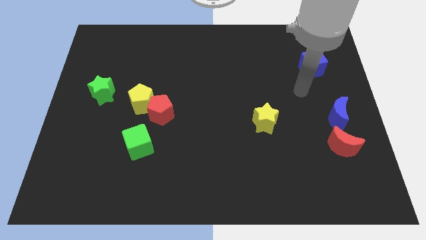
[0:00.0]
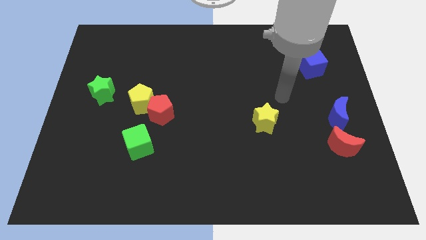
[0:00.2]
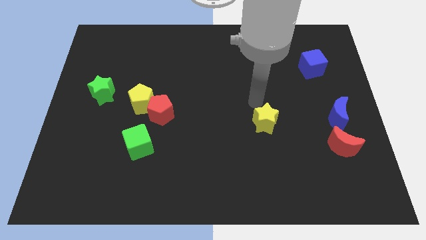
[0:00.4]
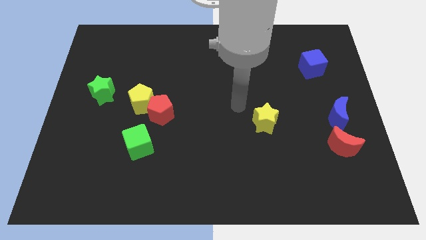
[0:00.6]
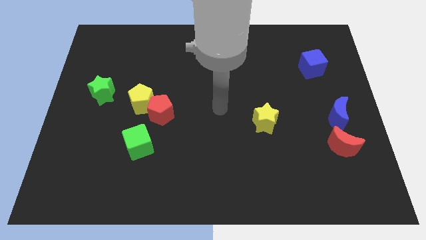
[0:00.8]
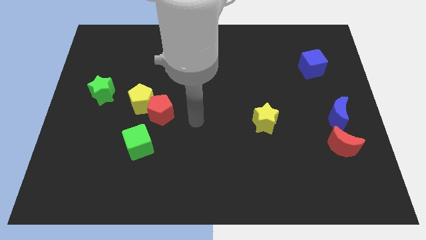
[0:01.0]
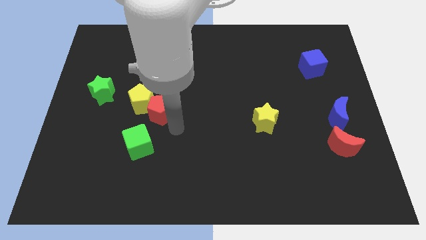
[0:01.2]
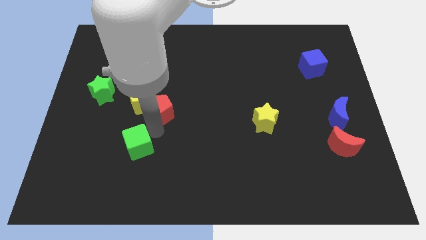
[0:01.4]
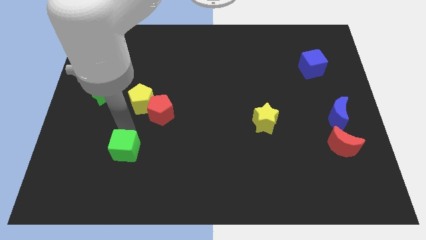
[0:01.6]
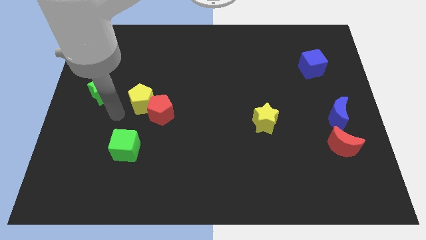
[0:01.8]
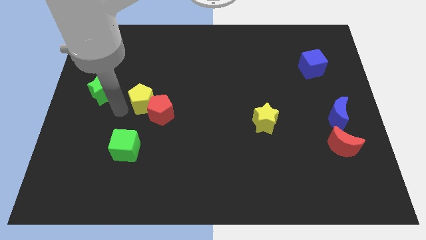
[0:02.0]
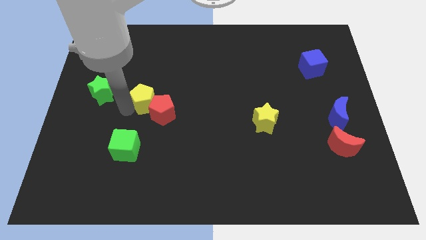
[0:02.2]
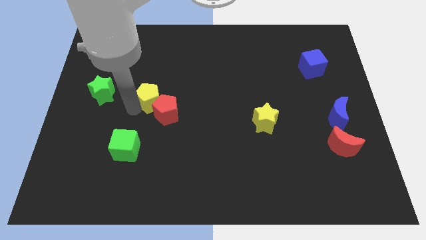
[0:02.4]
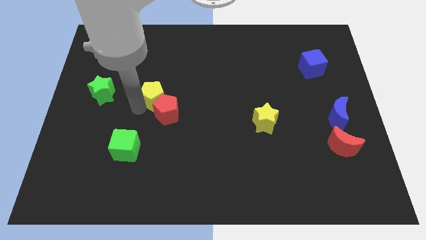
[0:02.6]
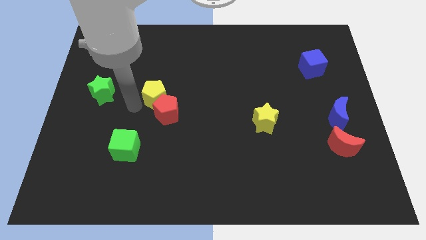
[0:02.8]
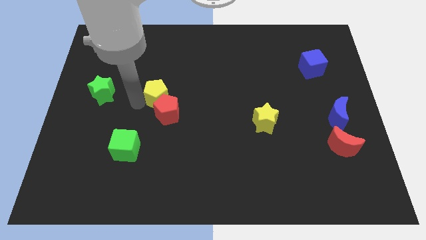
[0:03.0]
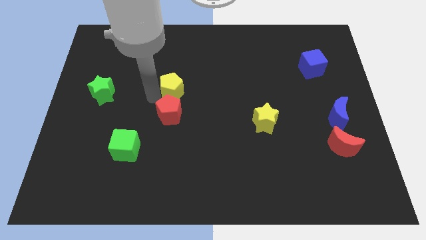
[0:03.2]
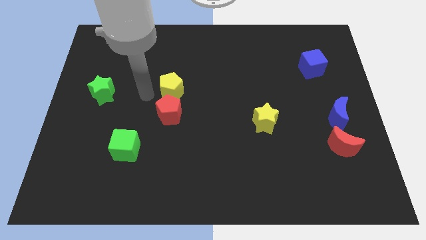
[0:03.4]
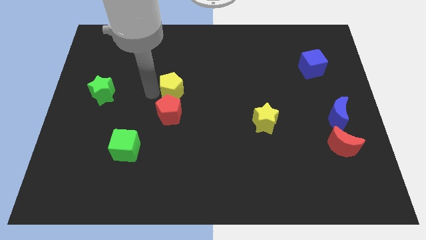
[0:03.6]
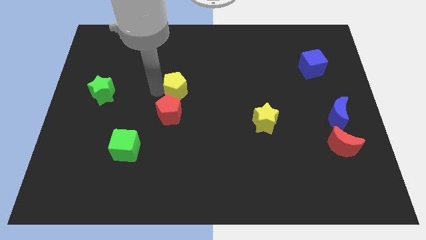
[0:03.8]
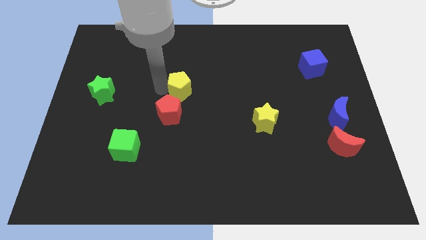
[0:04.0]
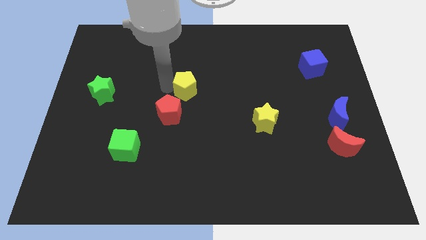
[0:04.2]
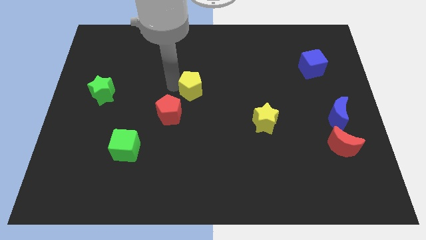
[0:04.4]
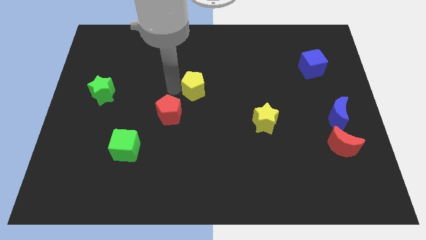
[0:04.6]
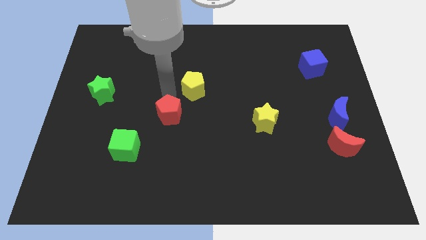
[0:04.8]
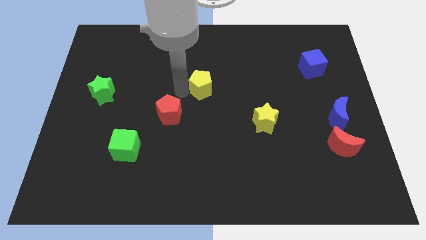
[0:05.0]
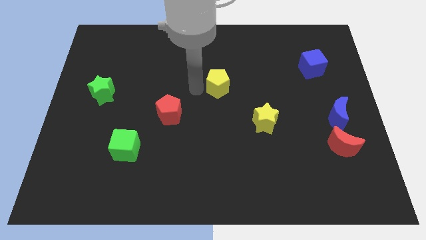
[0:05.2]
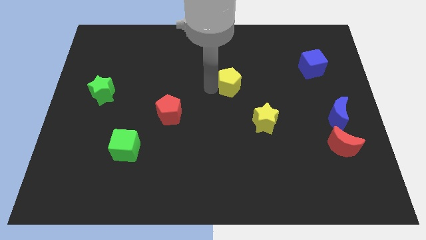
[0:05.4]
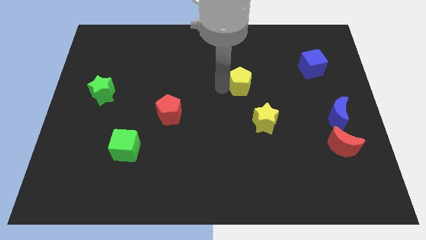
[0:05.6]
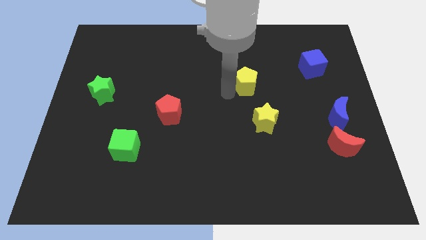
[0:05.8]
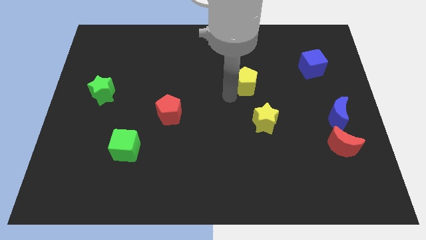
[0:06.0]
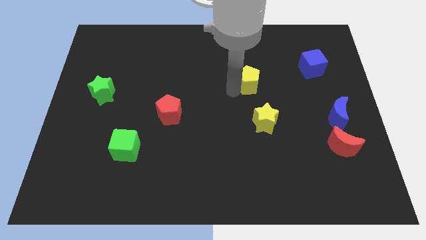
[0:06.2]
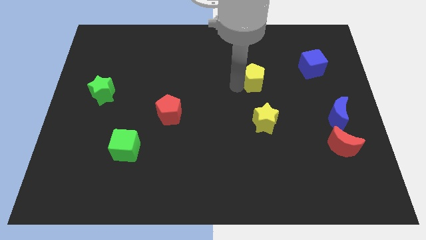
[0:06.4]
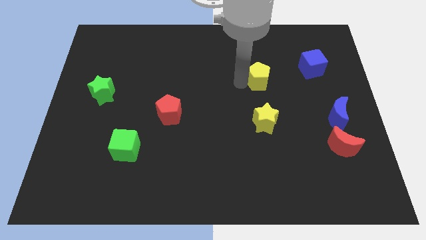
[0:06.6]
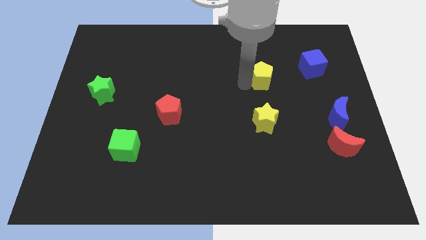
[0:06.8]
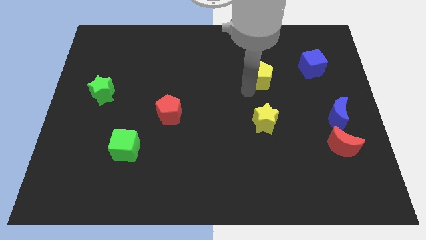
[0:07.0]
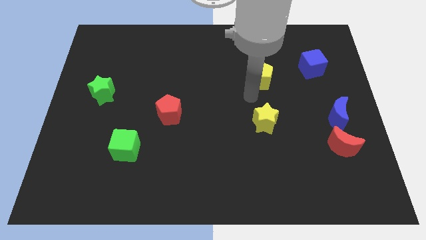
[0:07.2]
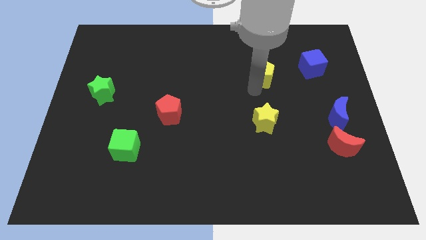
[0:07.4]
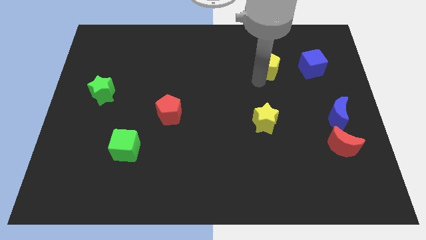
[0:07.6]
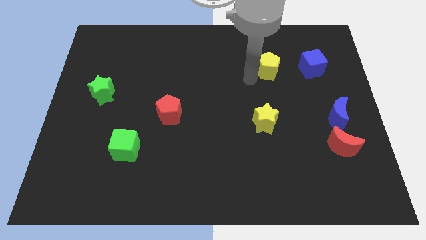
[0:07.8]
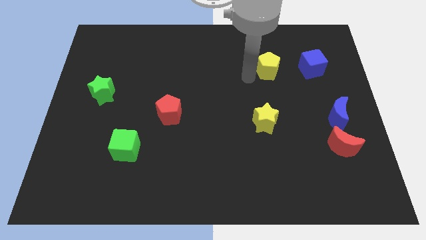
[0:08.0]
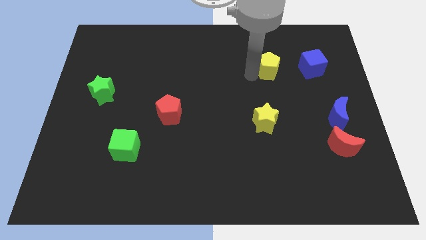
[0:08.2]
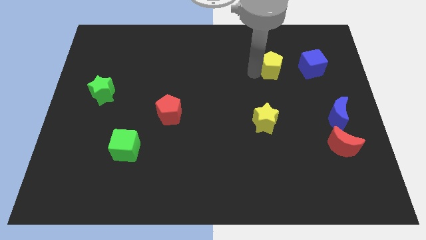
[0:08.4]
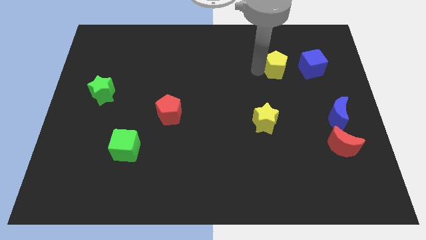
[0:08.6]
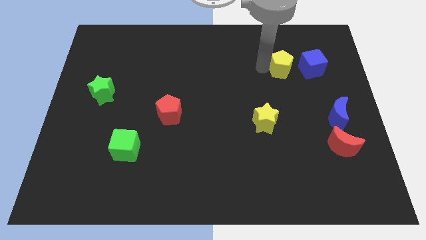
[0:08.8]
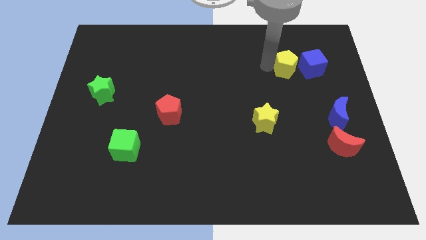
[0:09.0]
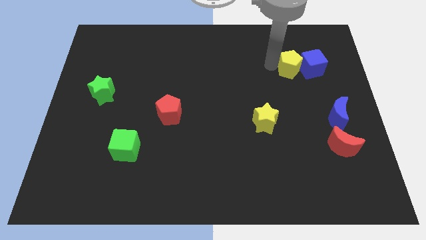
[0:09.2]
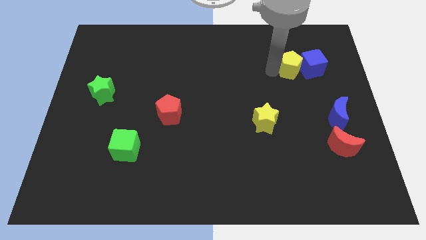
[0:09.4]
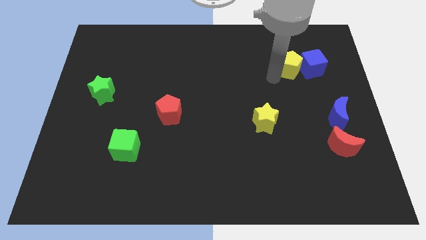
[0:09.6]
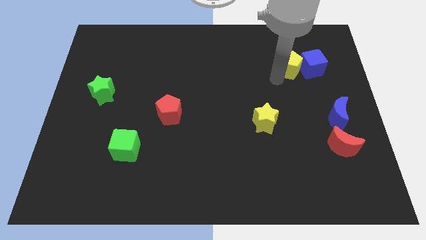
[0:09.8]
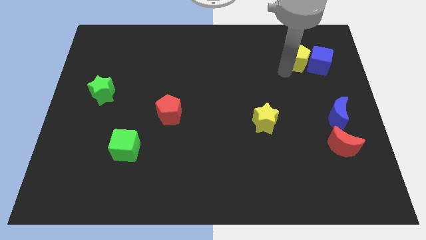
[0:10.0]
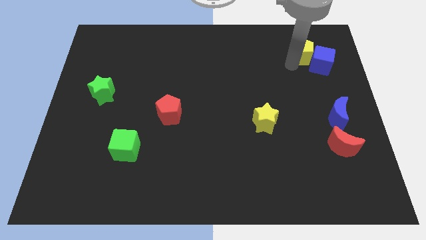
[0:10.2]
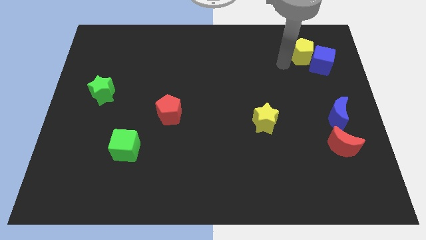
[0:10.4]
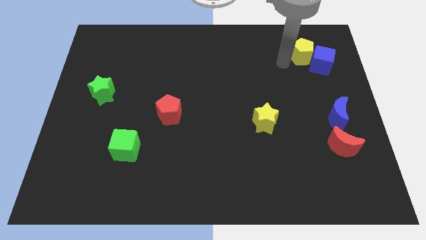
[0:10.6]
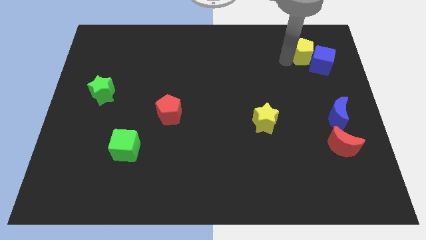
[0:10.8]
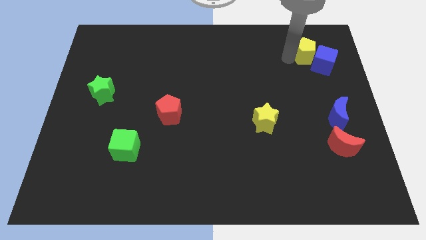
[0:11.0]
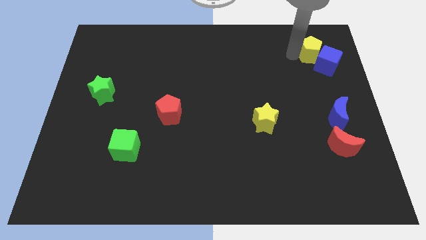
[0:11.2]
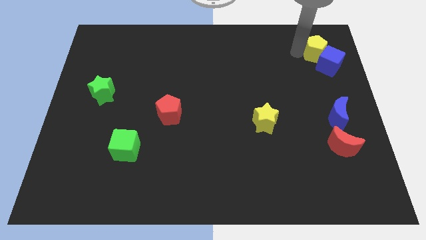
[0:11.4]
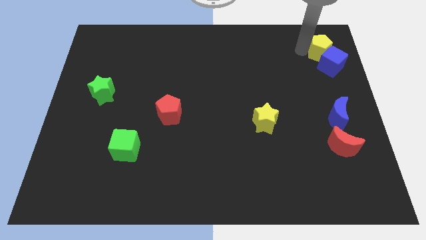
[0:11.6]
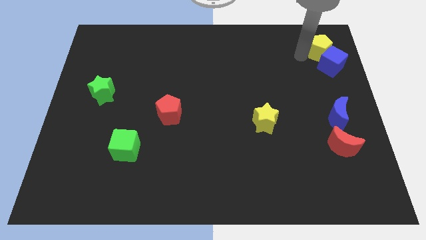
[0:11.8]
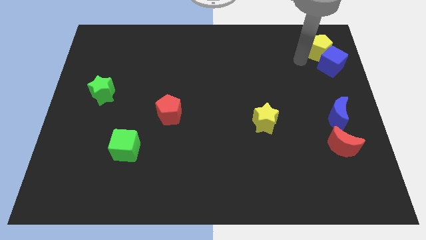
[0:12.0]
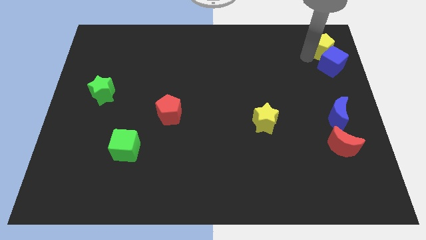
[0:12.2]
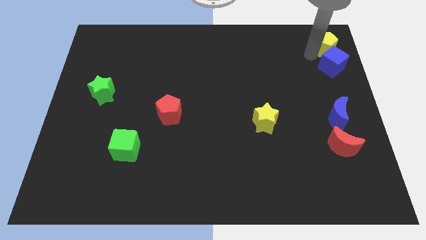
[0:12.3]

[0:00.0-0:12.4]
put the yellow pentagon to the top right corner
